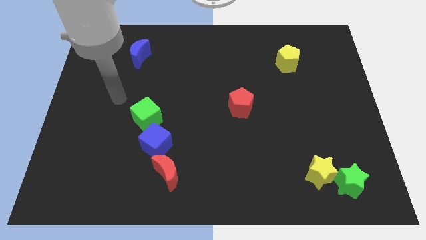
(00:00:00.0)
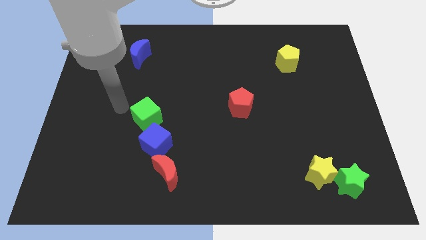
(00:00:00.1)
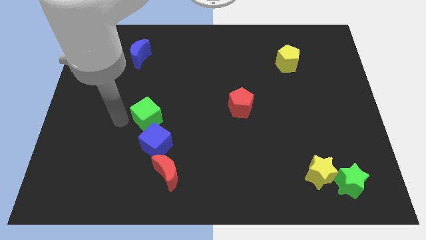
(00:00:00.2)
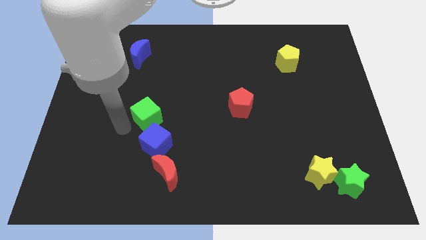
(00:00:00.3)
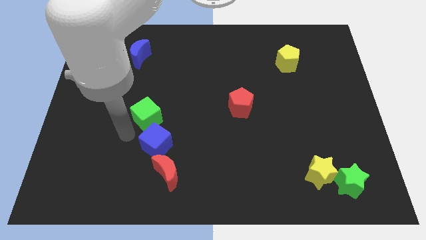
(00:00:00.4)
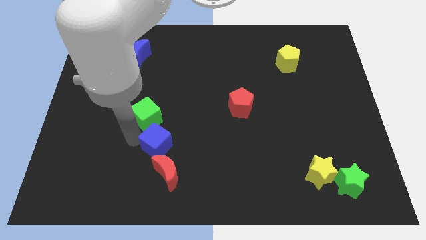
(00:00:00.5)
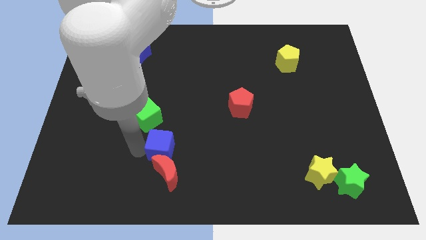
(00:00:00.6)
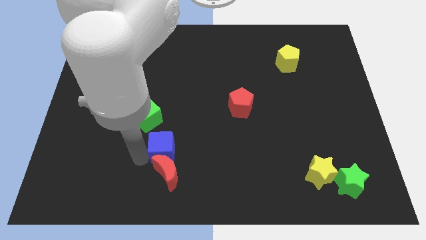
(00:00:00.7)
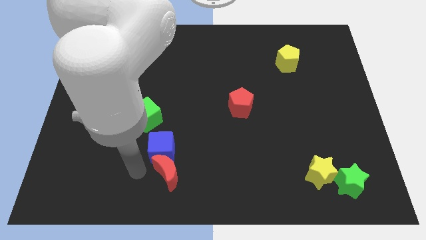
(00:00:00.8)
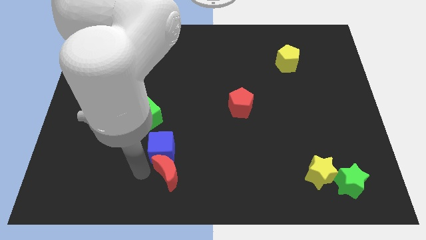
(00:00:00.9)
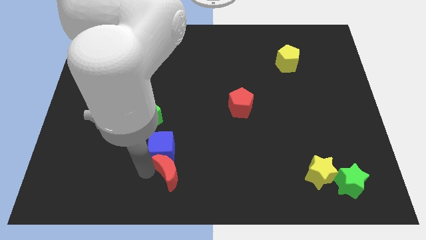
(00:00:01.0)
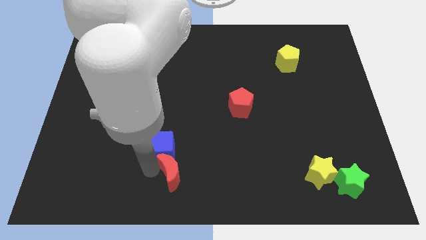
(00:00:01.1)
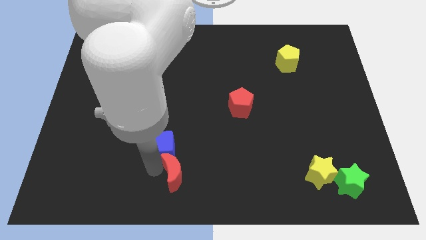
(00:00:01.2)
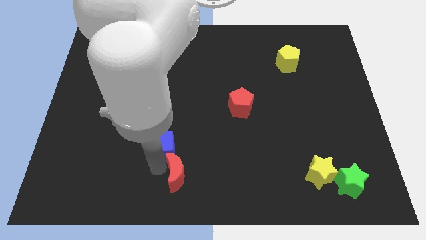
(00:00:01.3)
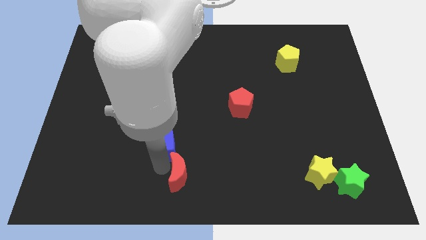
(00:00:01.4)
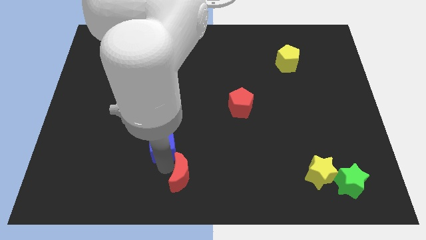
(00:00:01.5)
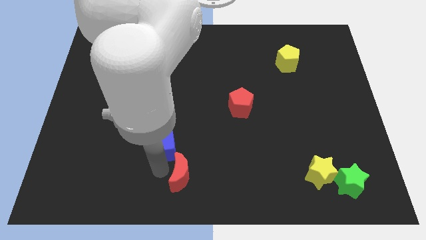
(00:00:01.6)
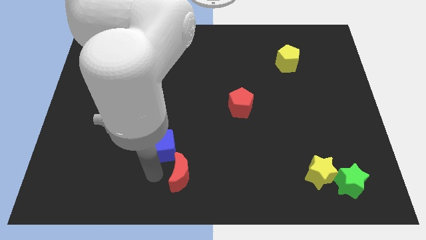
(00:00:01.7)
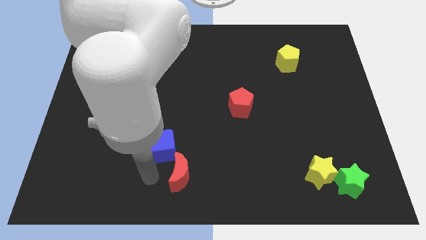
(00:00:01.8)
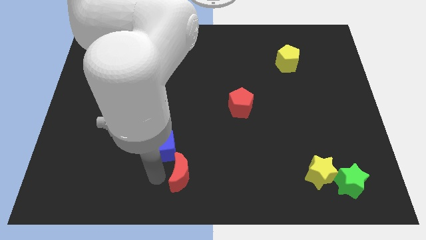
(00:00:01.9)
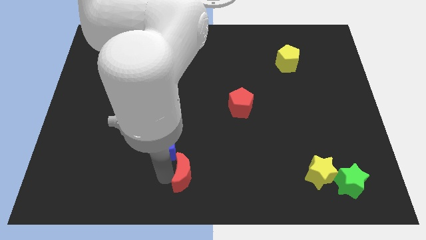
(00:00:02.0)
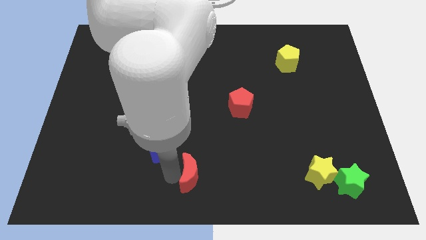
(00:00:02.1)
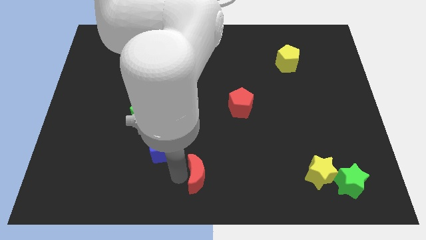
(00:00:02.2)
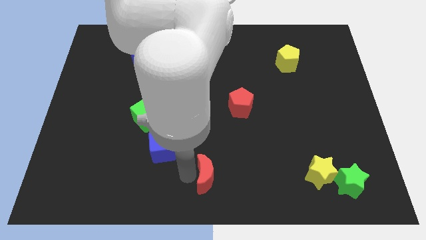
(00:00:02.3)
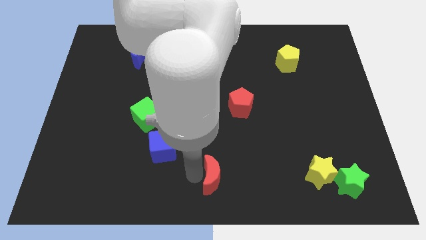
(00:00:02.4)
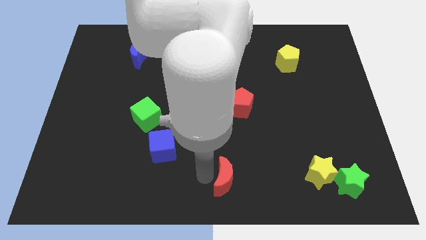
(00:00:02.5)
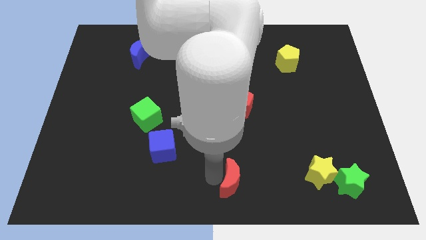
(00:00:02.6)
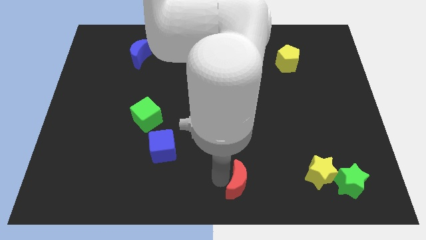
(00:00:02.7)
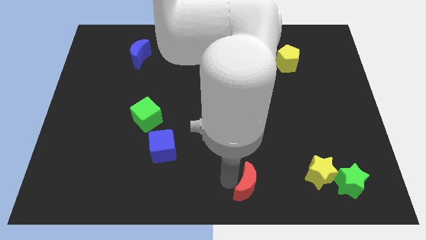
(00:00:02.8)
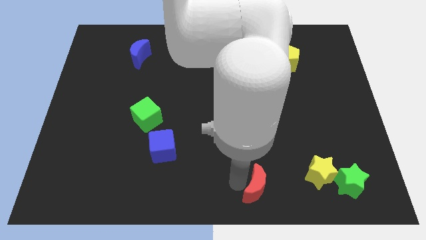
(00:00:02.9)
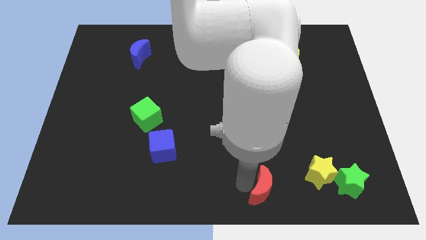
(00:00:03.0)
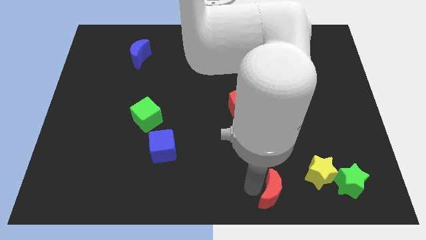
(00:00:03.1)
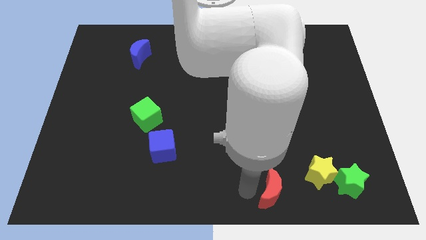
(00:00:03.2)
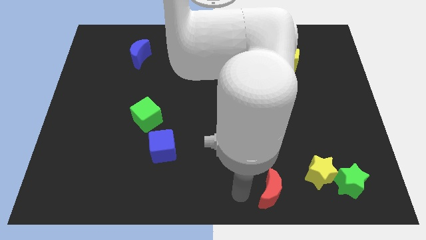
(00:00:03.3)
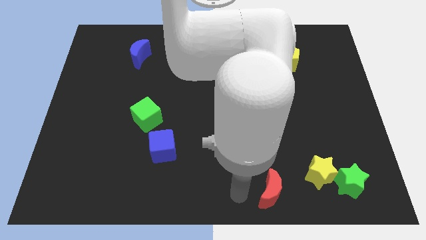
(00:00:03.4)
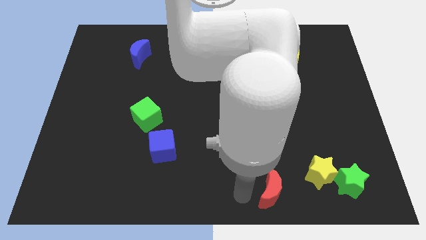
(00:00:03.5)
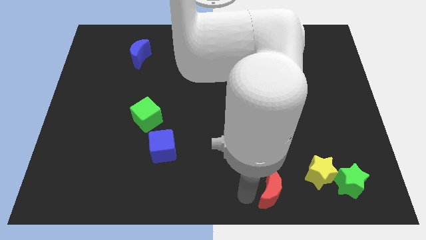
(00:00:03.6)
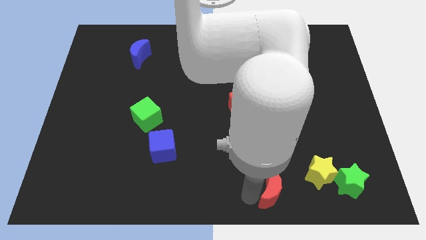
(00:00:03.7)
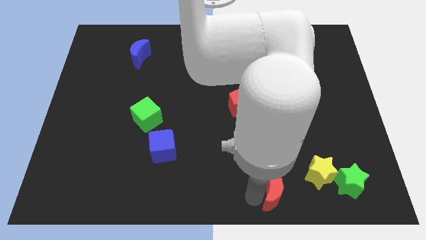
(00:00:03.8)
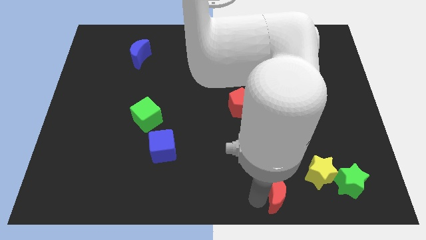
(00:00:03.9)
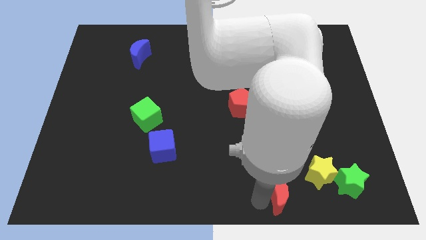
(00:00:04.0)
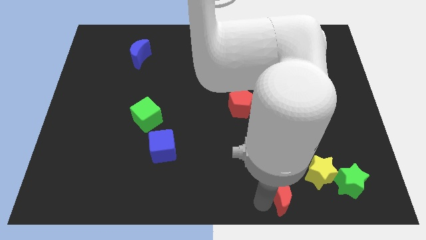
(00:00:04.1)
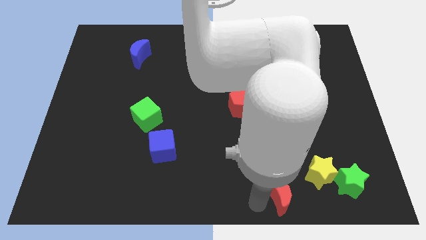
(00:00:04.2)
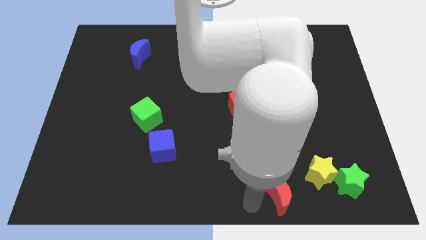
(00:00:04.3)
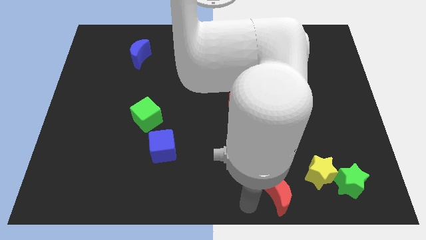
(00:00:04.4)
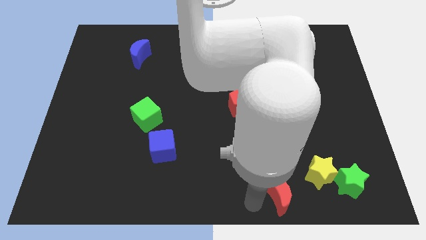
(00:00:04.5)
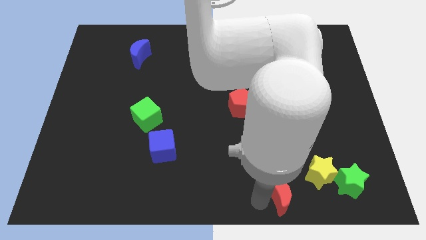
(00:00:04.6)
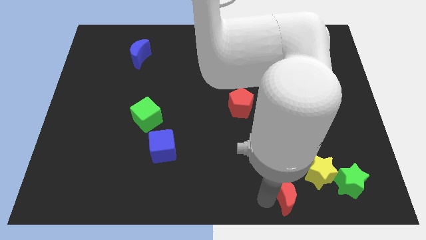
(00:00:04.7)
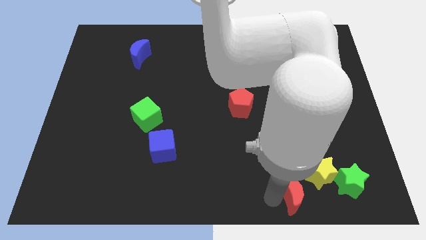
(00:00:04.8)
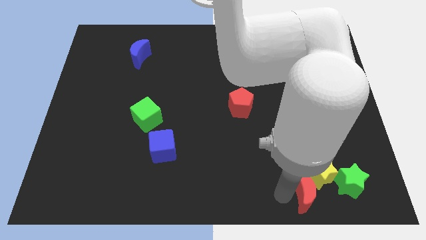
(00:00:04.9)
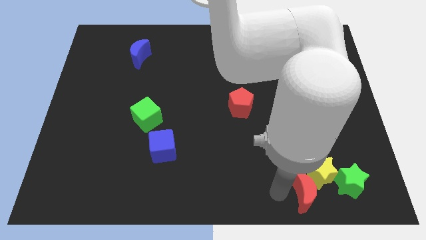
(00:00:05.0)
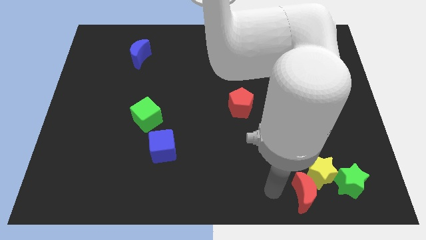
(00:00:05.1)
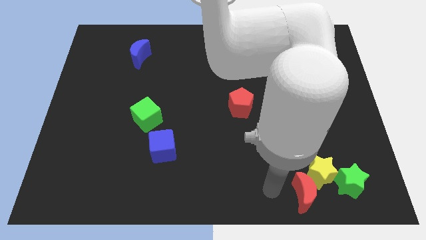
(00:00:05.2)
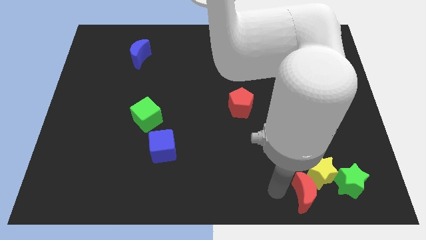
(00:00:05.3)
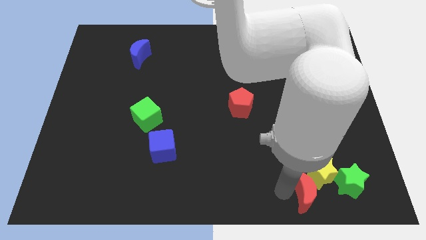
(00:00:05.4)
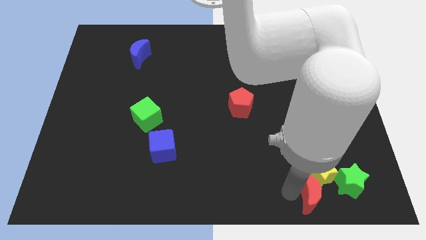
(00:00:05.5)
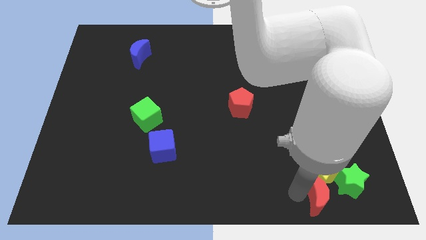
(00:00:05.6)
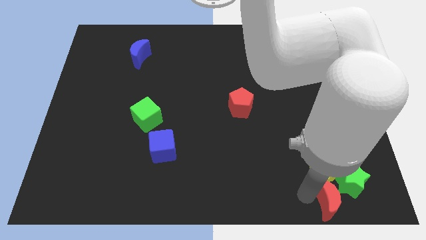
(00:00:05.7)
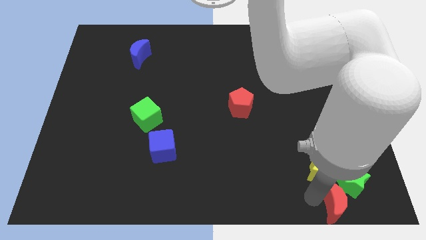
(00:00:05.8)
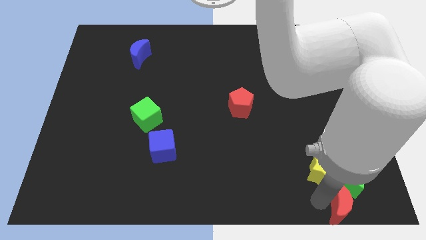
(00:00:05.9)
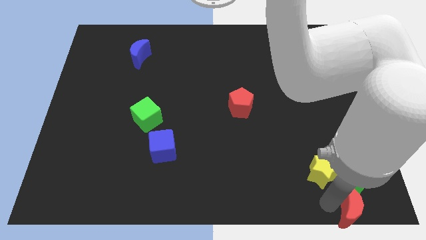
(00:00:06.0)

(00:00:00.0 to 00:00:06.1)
move the red moon to the lower right corner
